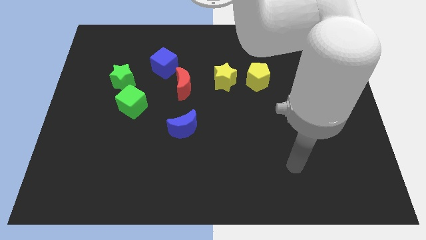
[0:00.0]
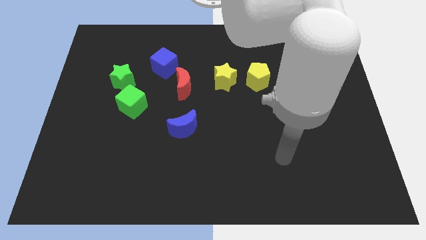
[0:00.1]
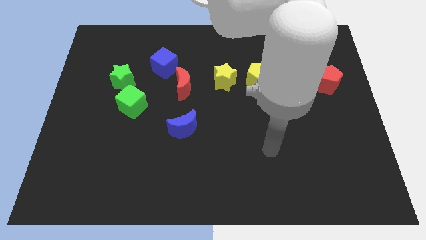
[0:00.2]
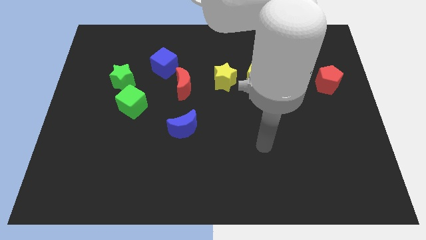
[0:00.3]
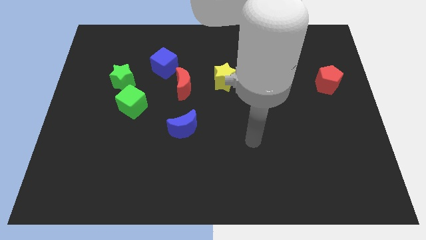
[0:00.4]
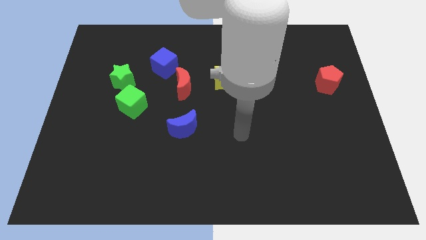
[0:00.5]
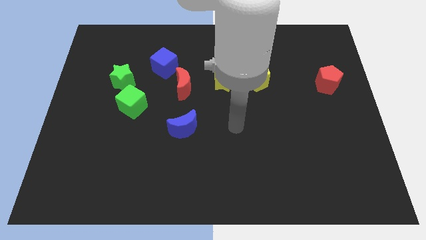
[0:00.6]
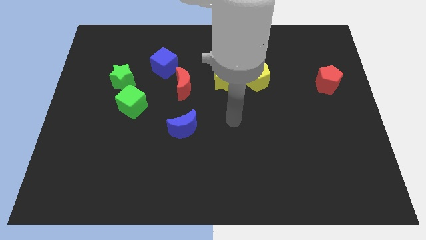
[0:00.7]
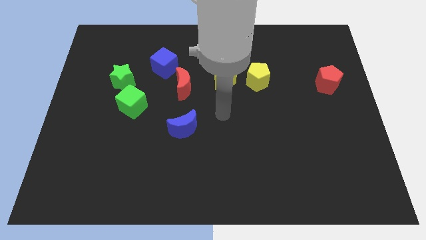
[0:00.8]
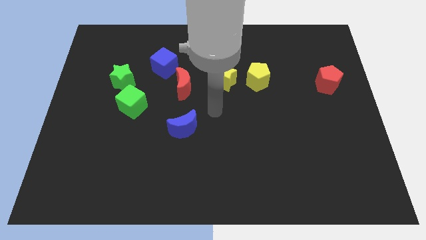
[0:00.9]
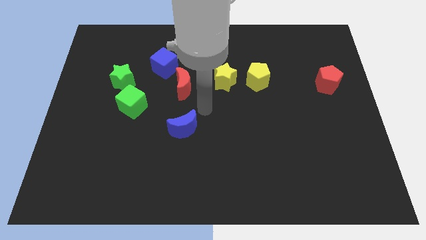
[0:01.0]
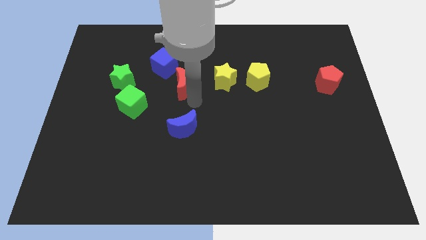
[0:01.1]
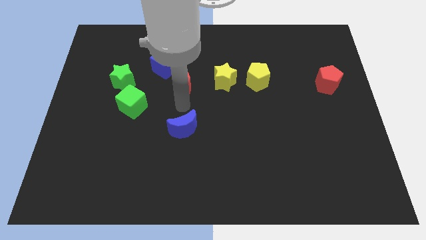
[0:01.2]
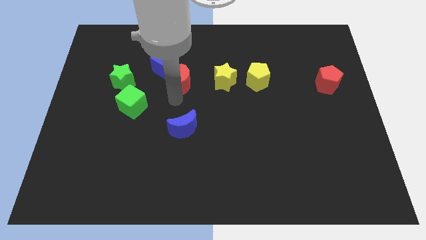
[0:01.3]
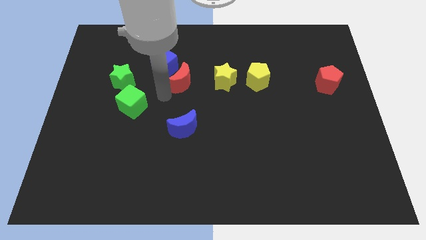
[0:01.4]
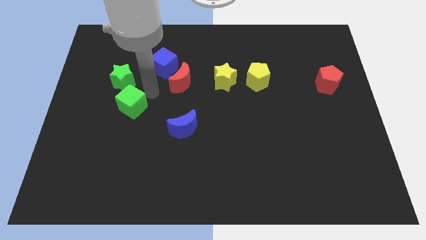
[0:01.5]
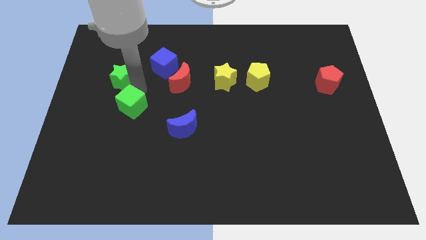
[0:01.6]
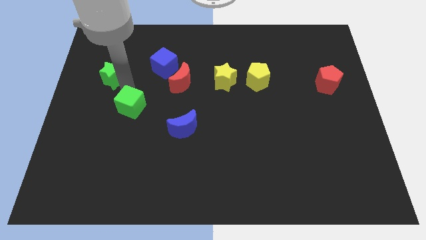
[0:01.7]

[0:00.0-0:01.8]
move the green cube away from the green star

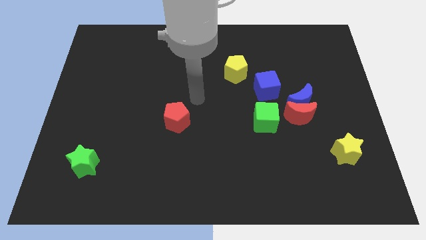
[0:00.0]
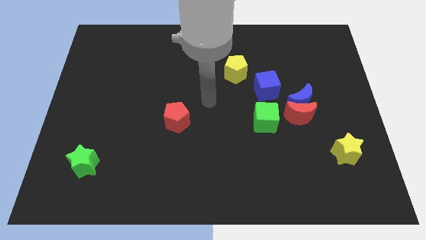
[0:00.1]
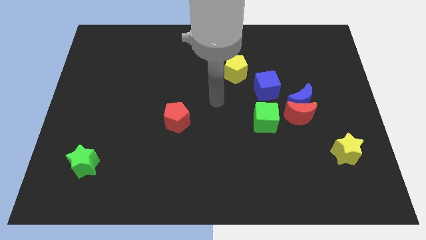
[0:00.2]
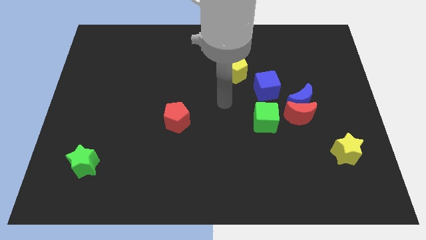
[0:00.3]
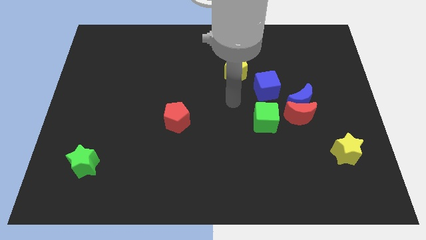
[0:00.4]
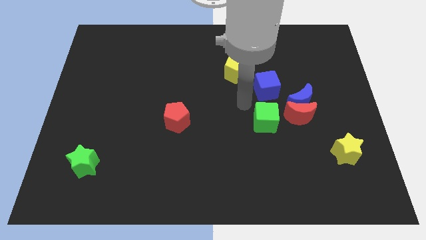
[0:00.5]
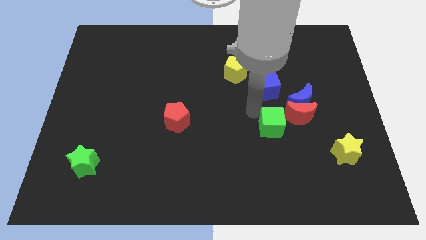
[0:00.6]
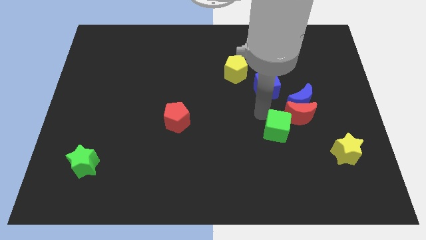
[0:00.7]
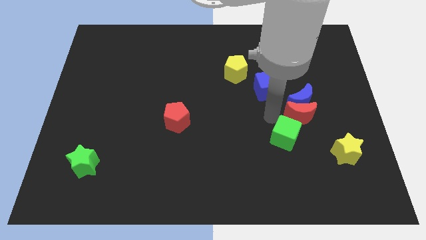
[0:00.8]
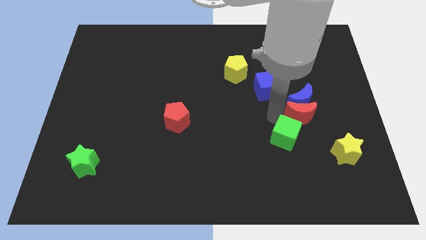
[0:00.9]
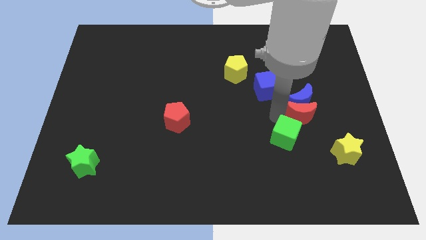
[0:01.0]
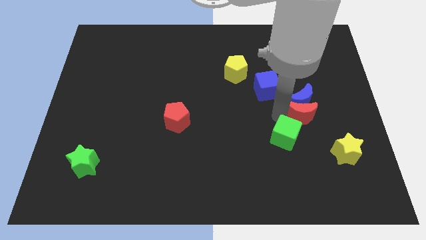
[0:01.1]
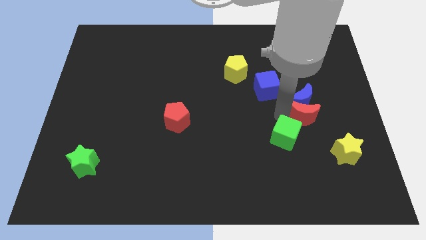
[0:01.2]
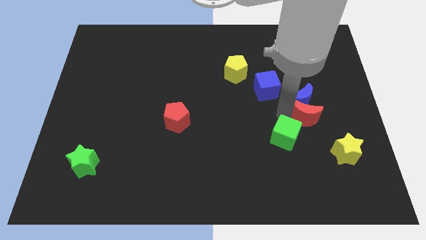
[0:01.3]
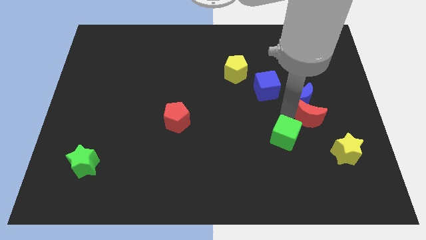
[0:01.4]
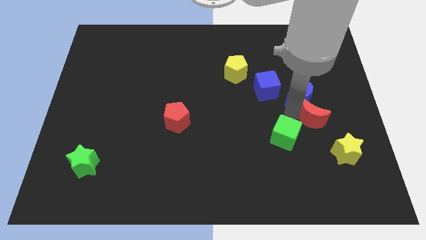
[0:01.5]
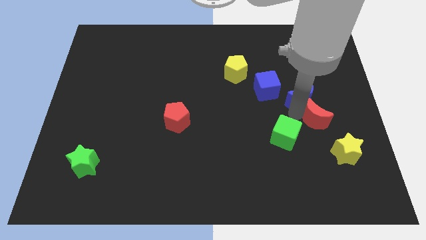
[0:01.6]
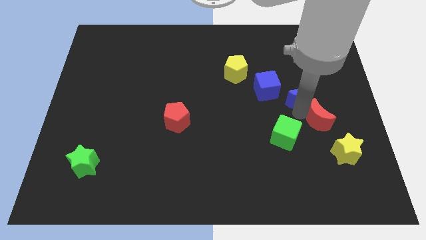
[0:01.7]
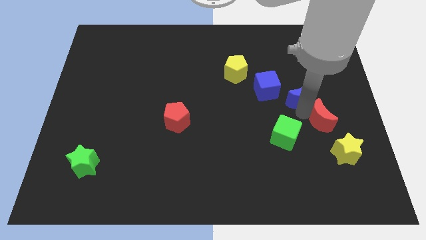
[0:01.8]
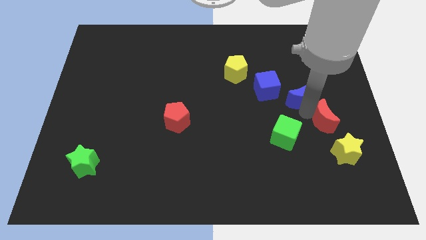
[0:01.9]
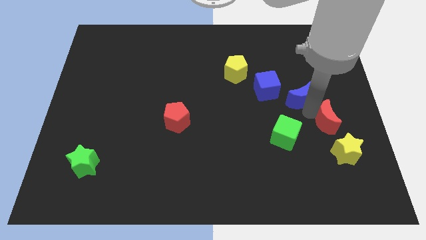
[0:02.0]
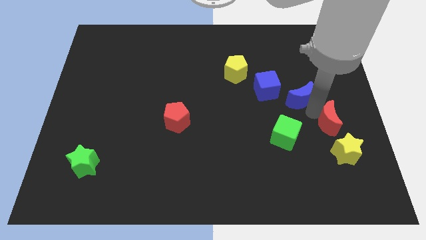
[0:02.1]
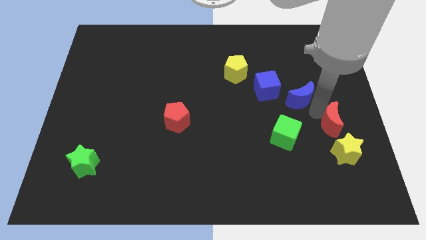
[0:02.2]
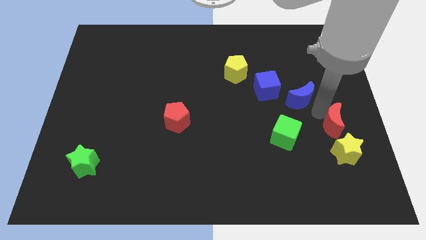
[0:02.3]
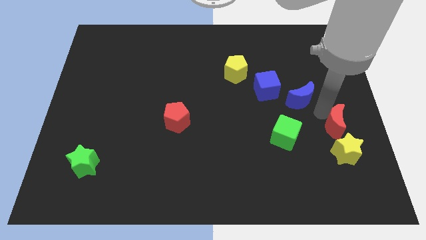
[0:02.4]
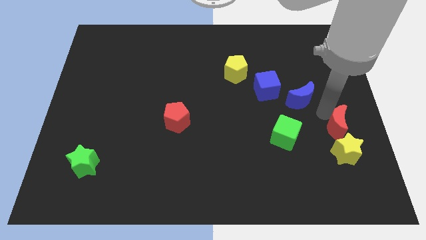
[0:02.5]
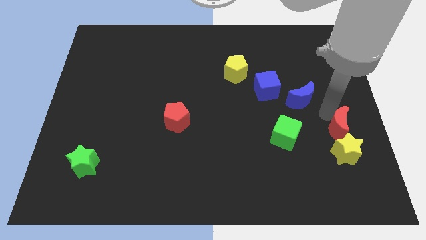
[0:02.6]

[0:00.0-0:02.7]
separate the red moon from the blue moon and green cube

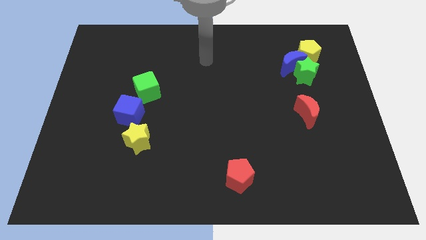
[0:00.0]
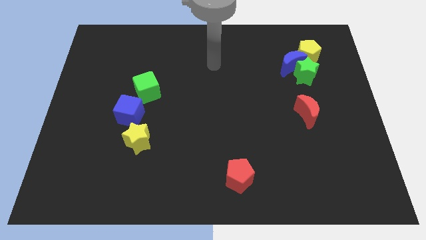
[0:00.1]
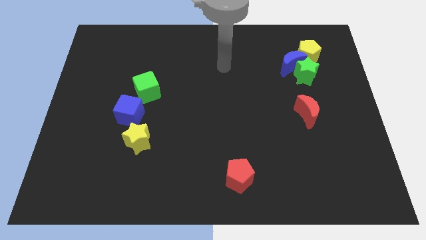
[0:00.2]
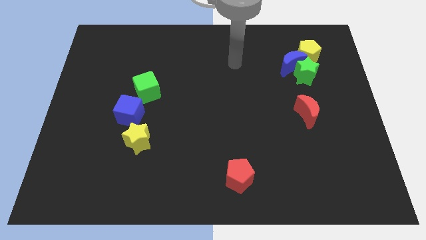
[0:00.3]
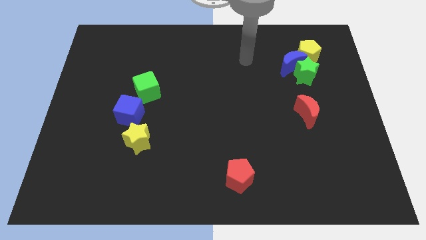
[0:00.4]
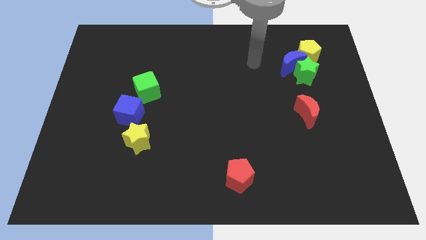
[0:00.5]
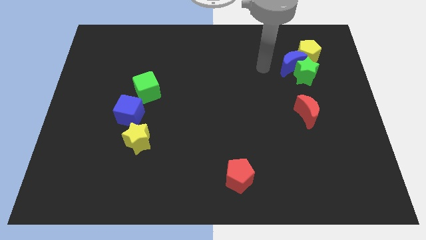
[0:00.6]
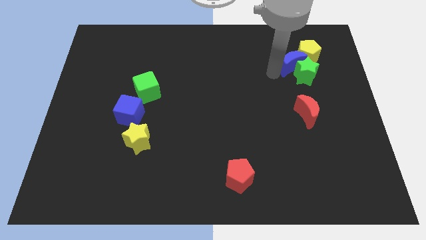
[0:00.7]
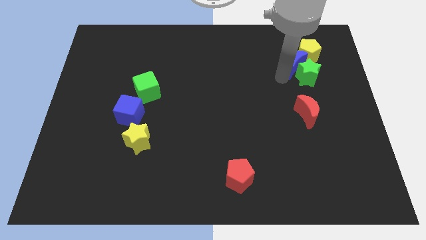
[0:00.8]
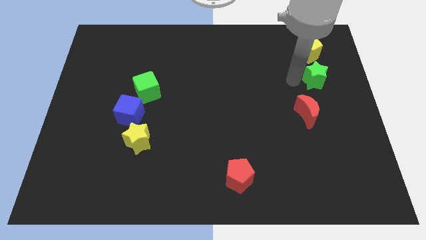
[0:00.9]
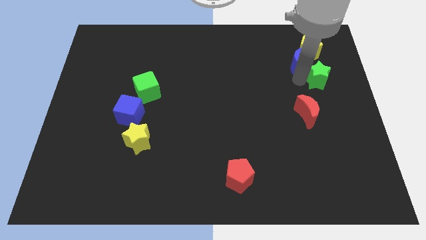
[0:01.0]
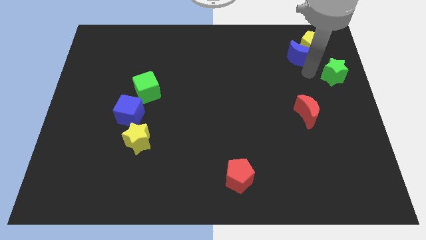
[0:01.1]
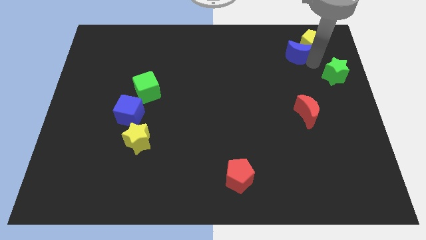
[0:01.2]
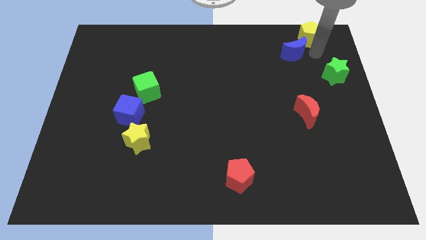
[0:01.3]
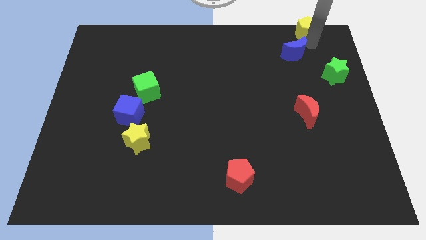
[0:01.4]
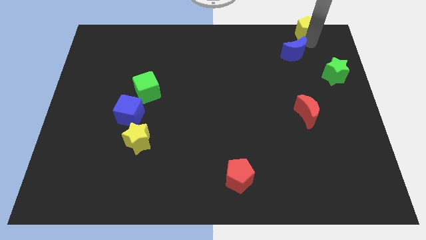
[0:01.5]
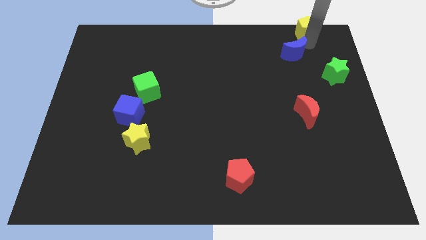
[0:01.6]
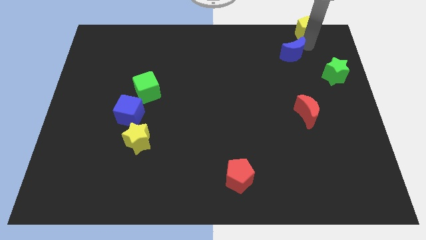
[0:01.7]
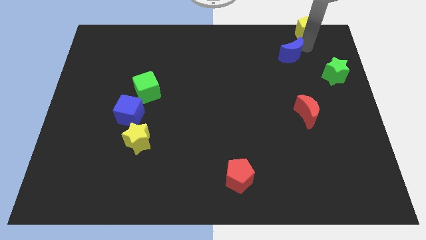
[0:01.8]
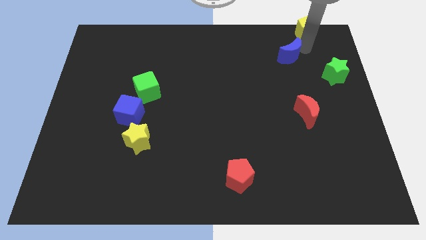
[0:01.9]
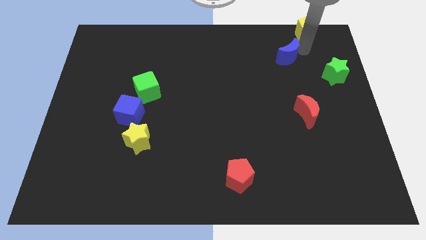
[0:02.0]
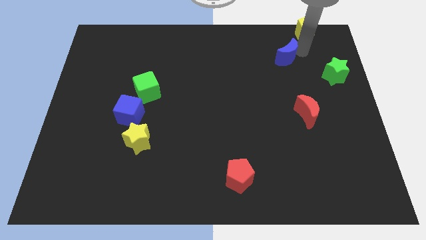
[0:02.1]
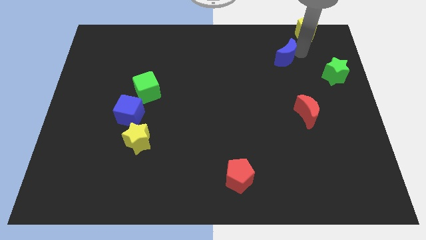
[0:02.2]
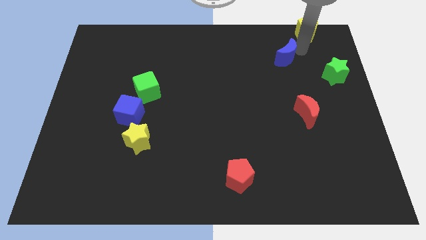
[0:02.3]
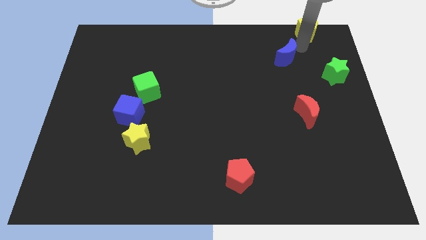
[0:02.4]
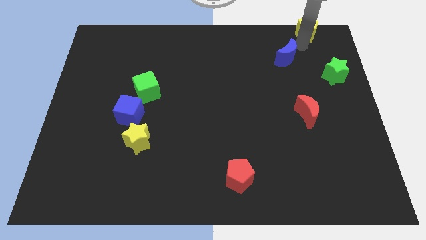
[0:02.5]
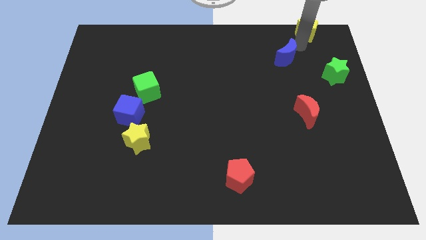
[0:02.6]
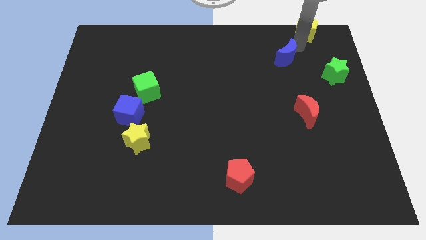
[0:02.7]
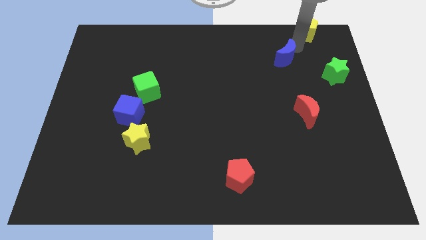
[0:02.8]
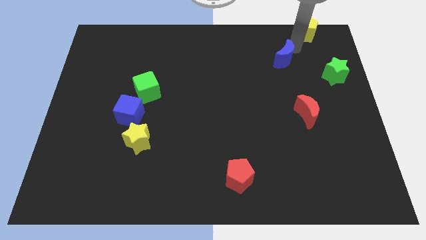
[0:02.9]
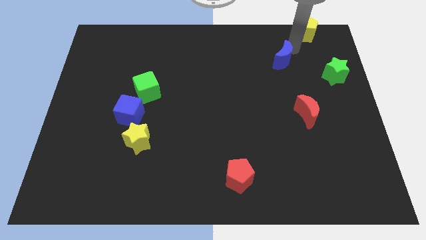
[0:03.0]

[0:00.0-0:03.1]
pull the blue moon apart from the green star and yellow pentagon

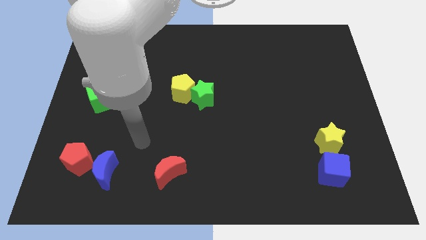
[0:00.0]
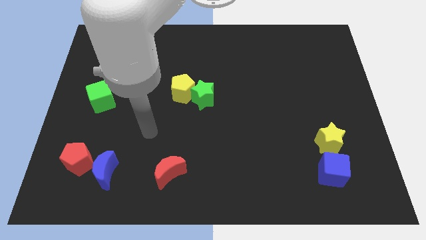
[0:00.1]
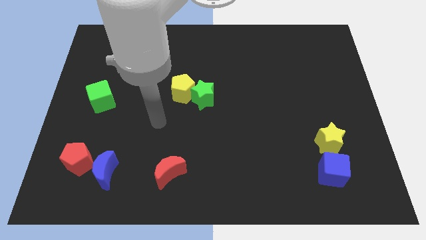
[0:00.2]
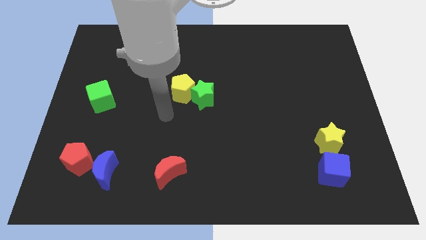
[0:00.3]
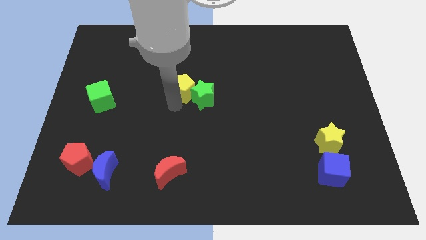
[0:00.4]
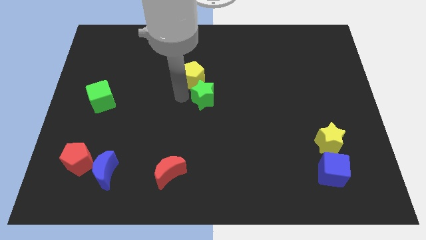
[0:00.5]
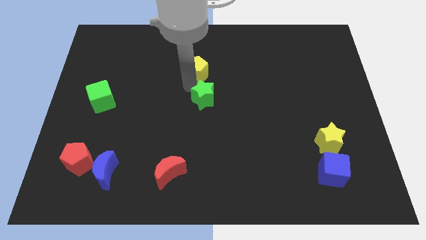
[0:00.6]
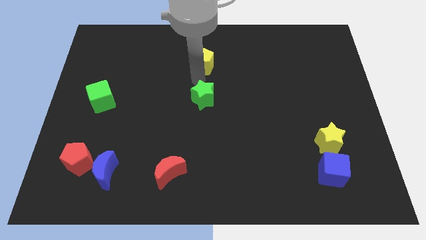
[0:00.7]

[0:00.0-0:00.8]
move the green star away from the yellow pentagon

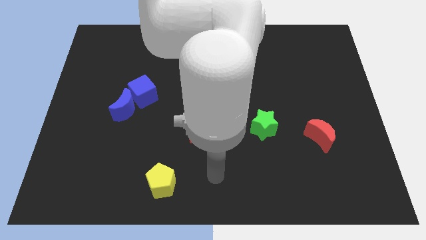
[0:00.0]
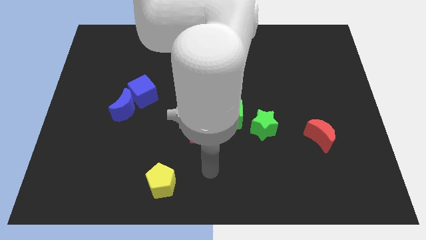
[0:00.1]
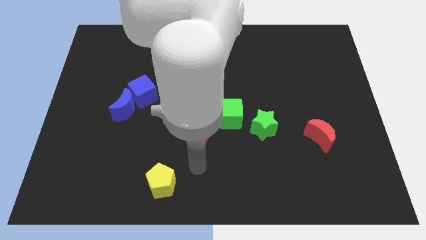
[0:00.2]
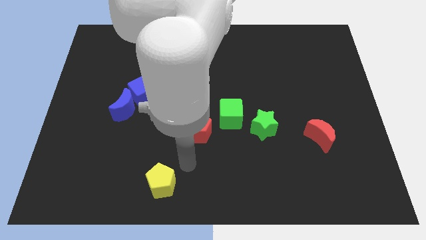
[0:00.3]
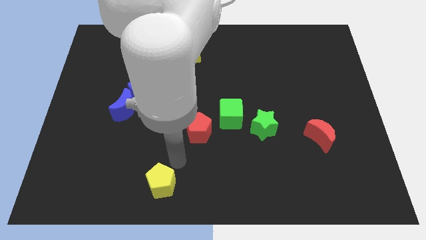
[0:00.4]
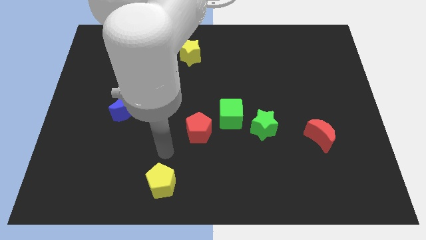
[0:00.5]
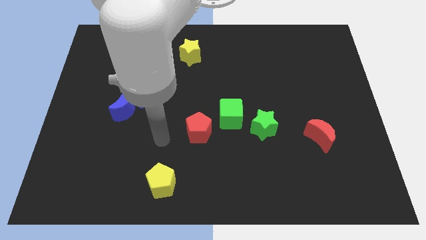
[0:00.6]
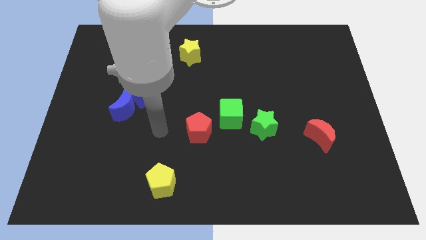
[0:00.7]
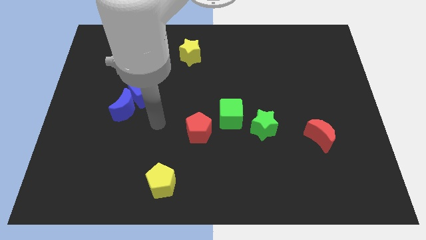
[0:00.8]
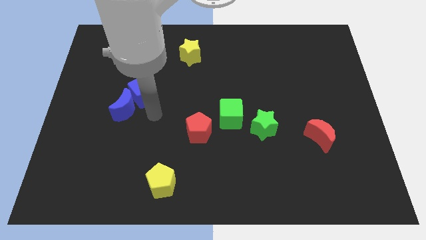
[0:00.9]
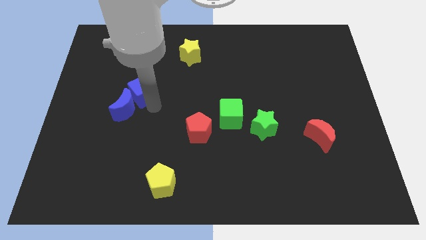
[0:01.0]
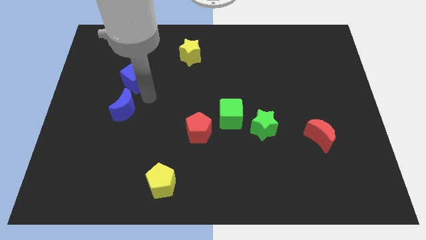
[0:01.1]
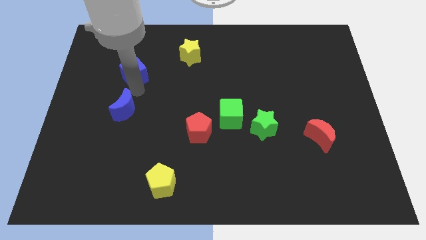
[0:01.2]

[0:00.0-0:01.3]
separate the blue moon from the blue cube
